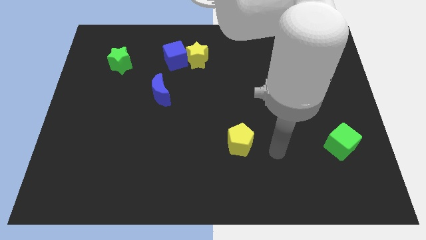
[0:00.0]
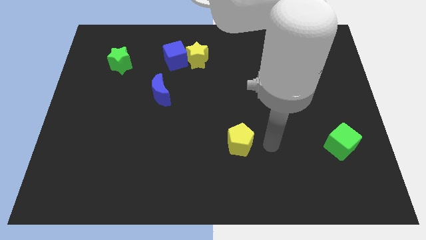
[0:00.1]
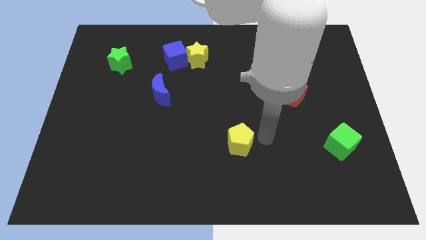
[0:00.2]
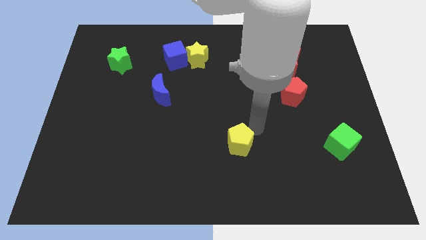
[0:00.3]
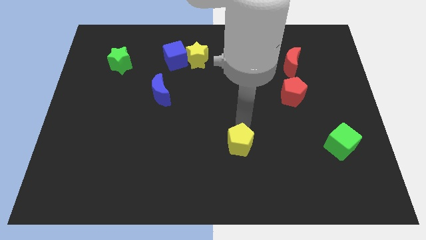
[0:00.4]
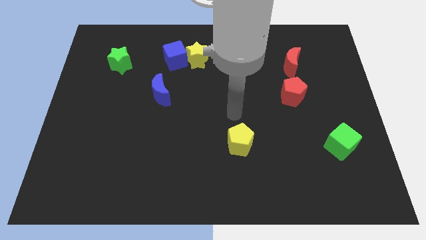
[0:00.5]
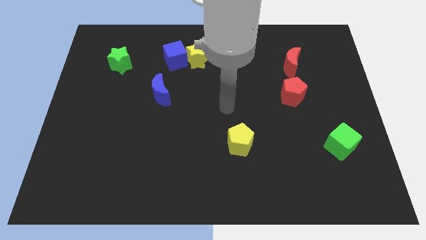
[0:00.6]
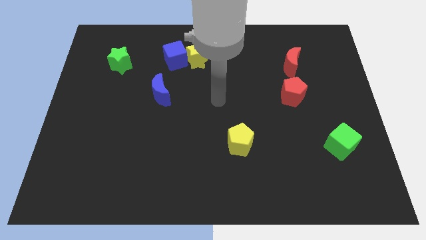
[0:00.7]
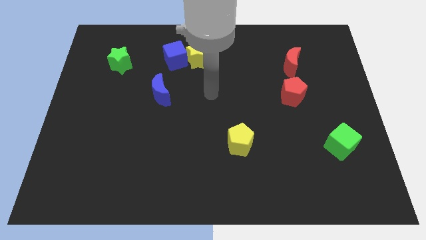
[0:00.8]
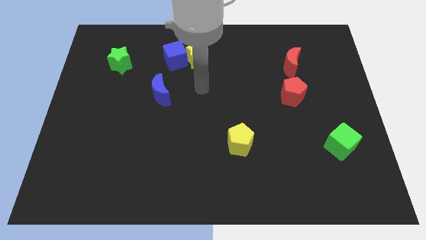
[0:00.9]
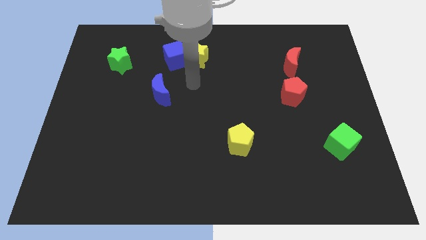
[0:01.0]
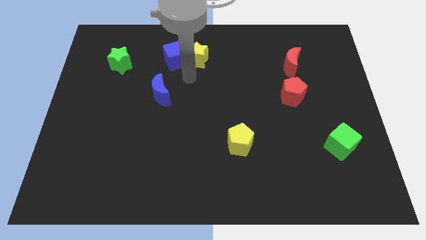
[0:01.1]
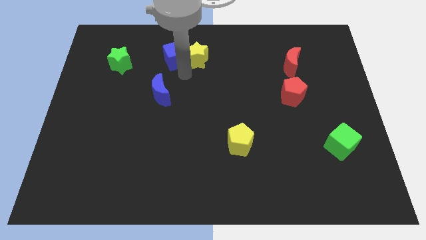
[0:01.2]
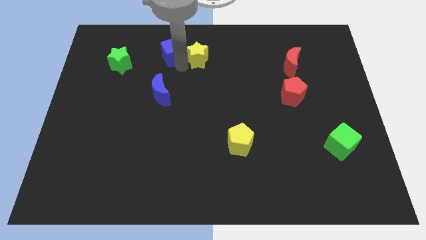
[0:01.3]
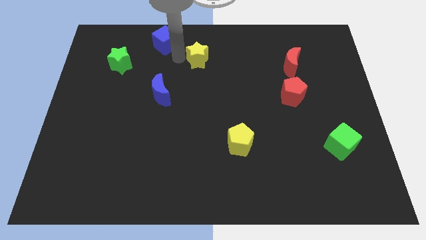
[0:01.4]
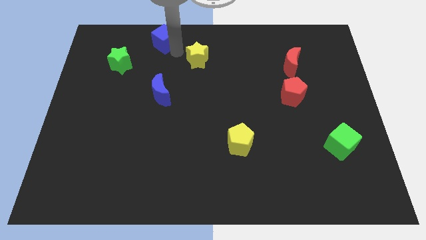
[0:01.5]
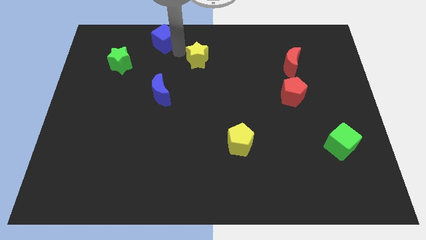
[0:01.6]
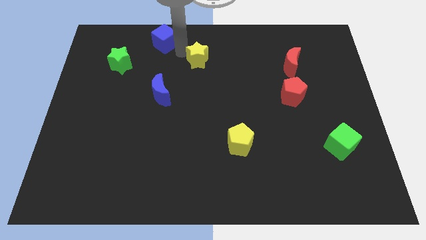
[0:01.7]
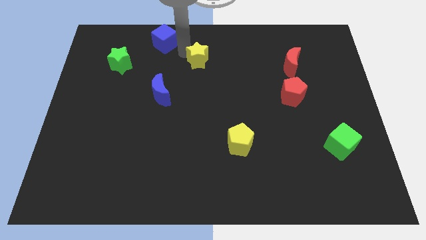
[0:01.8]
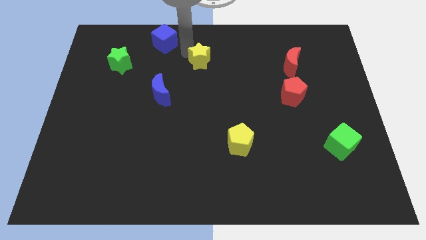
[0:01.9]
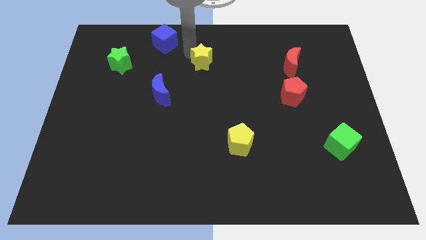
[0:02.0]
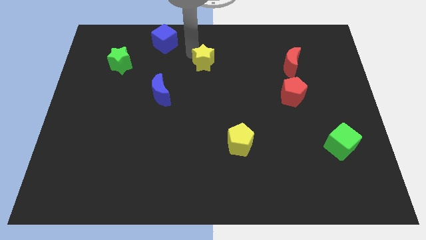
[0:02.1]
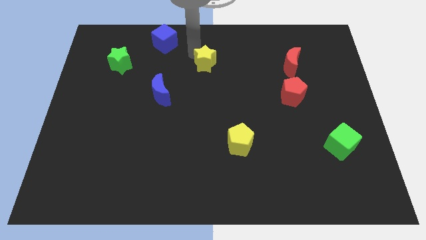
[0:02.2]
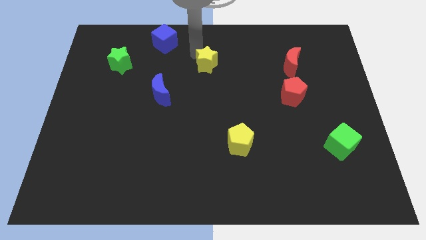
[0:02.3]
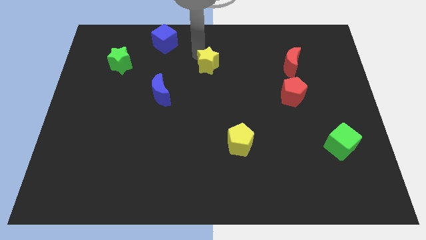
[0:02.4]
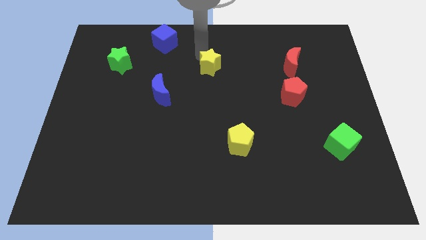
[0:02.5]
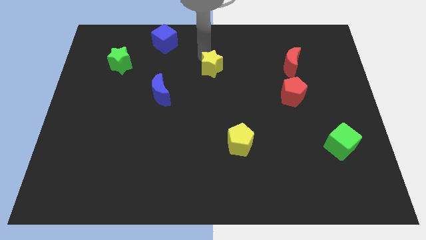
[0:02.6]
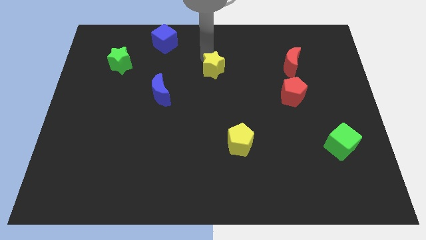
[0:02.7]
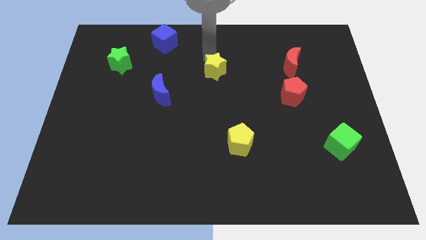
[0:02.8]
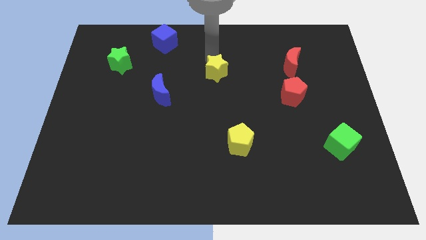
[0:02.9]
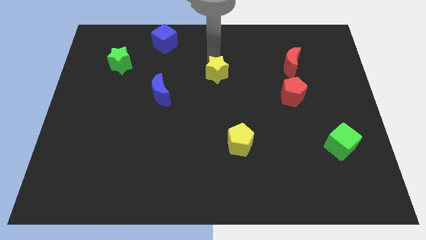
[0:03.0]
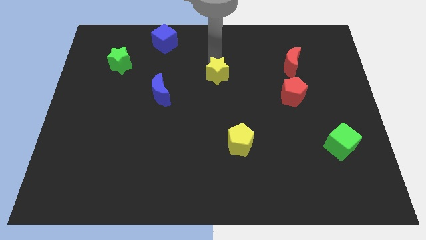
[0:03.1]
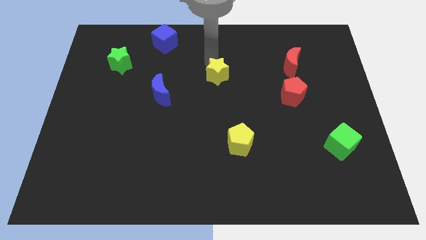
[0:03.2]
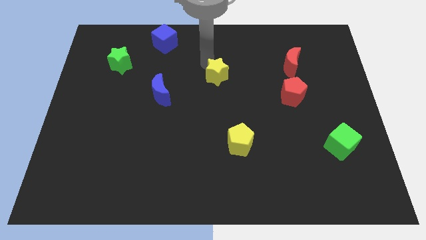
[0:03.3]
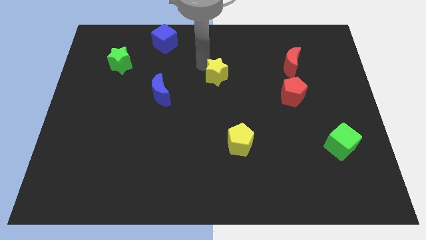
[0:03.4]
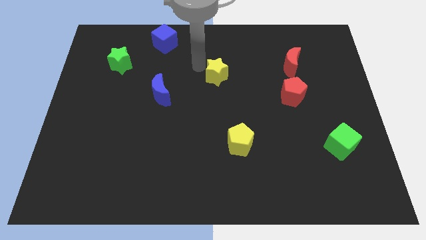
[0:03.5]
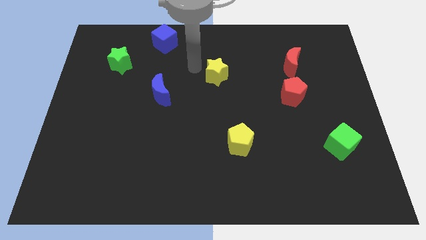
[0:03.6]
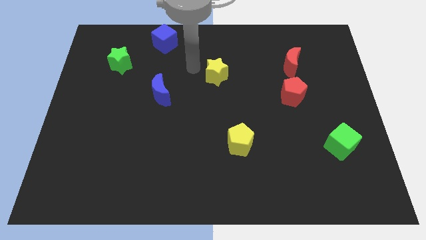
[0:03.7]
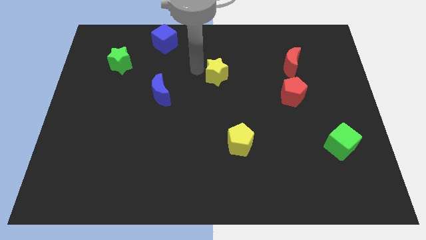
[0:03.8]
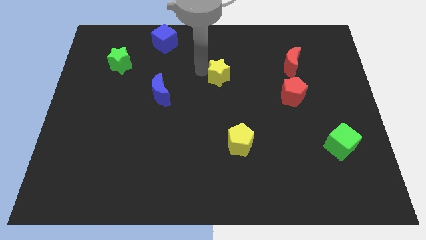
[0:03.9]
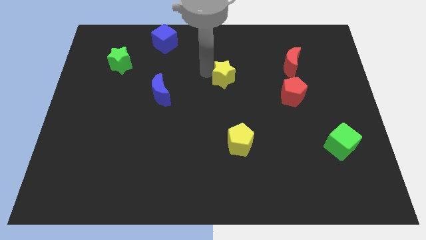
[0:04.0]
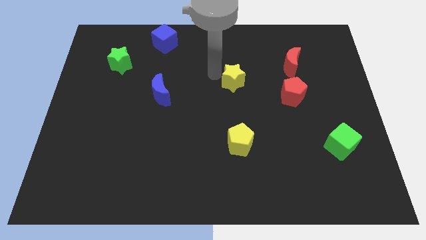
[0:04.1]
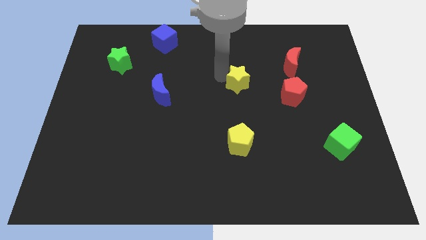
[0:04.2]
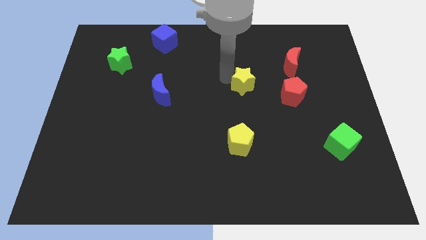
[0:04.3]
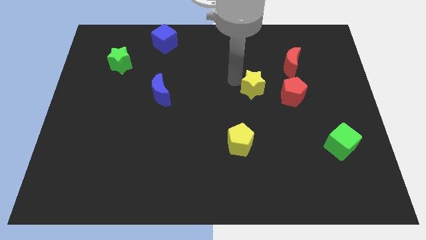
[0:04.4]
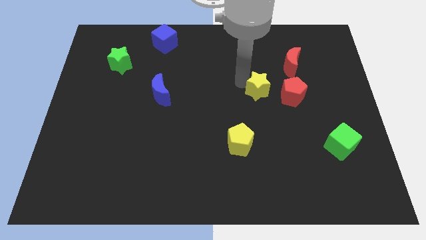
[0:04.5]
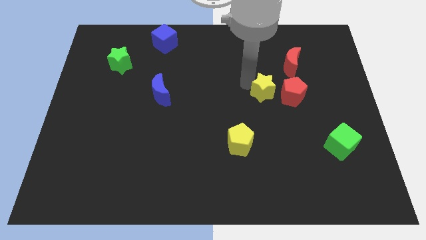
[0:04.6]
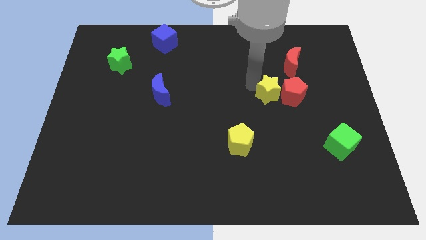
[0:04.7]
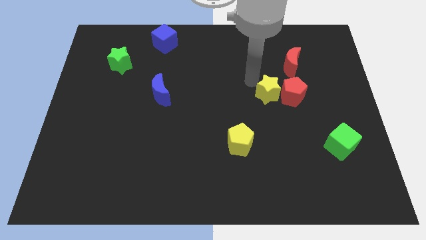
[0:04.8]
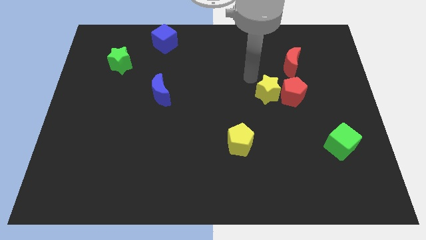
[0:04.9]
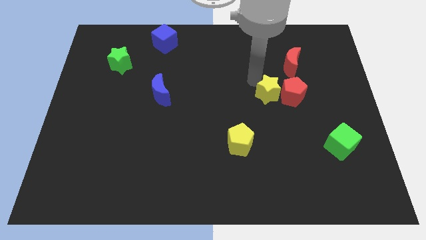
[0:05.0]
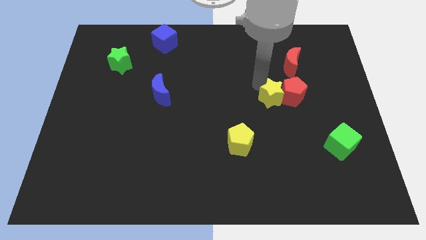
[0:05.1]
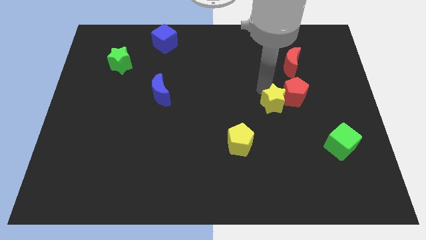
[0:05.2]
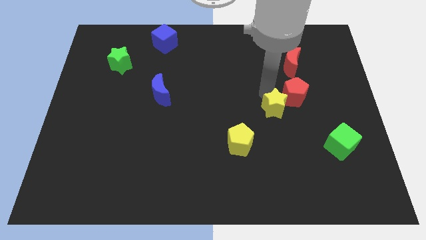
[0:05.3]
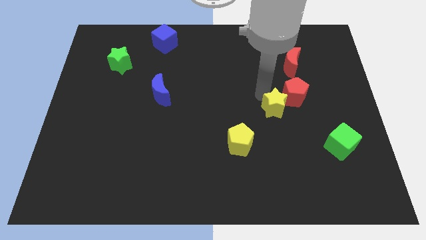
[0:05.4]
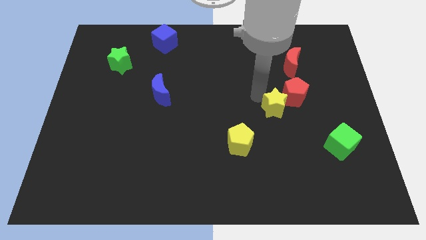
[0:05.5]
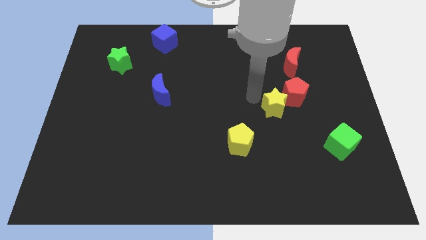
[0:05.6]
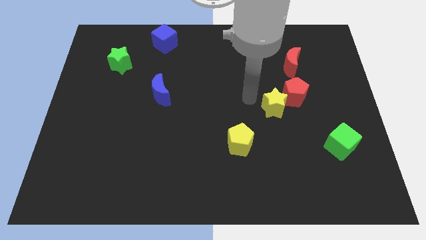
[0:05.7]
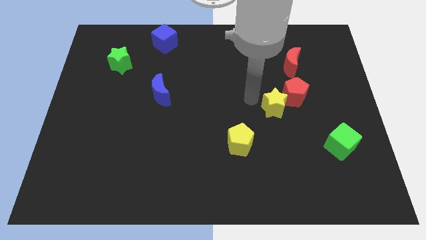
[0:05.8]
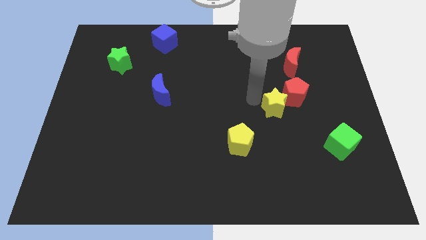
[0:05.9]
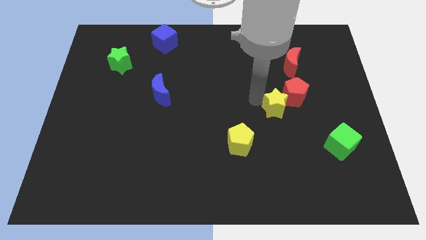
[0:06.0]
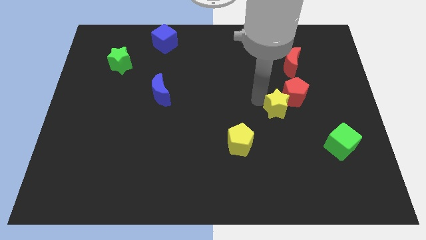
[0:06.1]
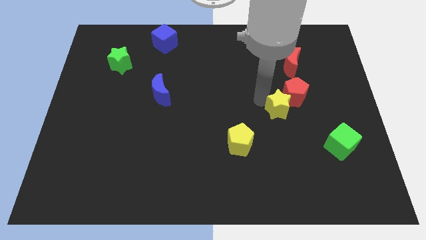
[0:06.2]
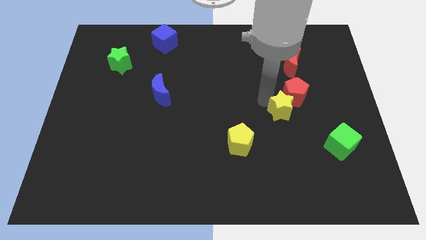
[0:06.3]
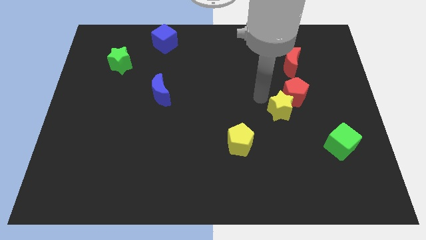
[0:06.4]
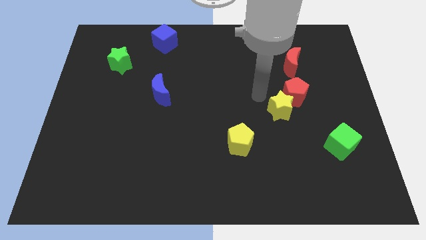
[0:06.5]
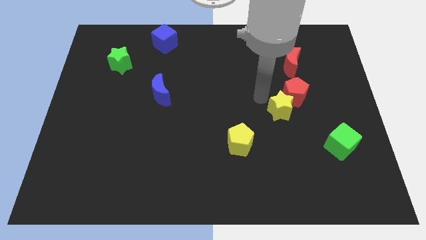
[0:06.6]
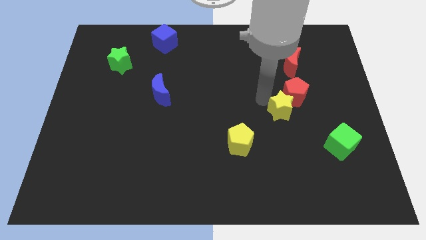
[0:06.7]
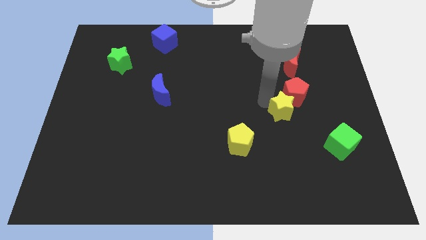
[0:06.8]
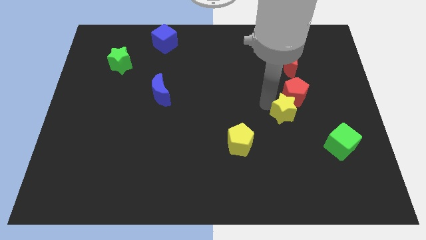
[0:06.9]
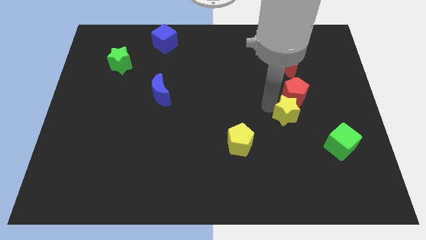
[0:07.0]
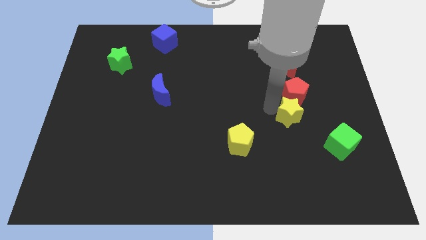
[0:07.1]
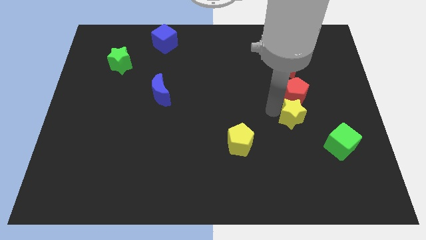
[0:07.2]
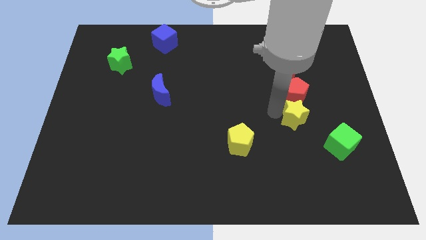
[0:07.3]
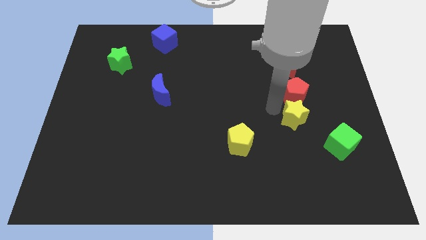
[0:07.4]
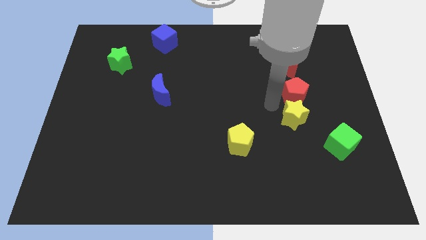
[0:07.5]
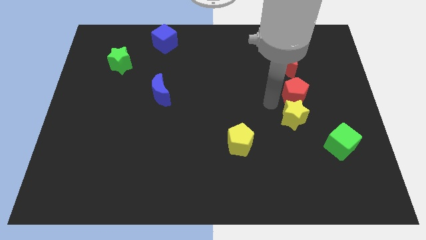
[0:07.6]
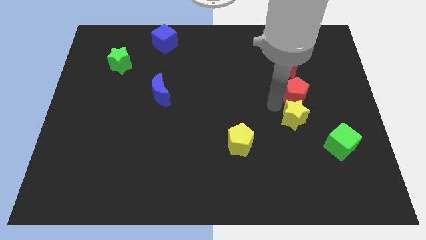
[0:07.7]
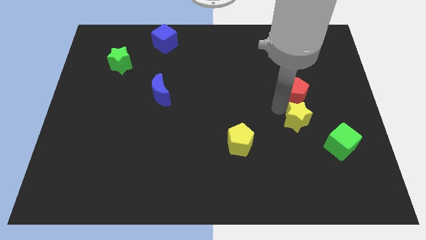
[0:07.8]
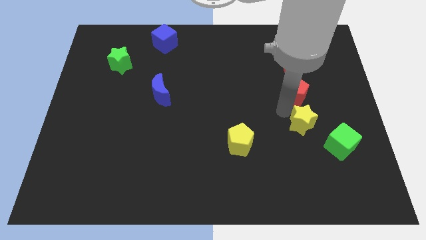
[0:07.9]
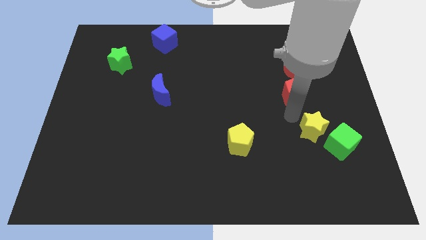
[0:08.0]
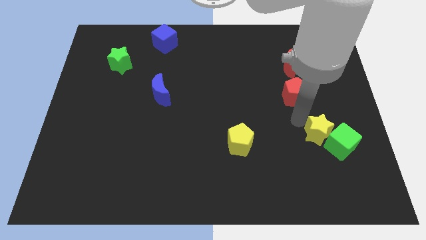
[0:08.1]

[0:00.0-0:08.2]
move the yellow star towards the green cube
